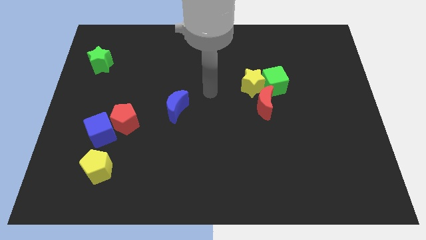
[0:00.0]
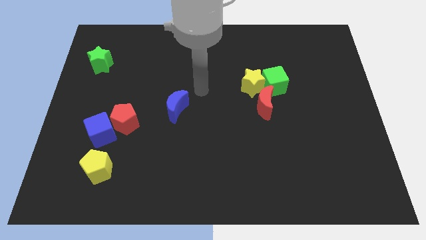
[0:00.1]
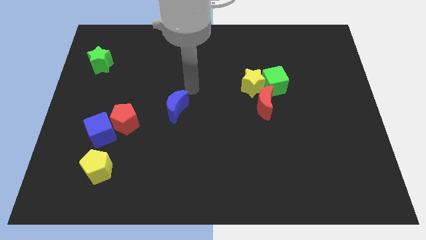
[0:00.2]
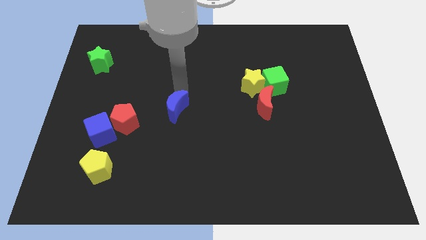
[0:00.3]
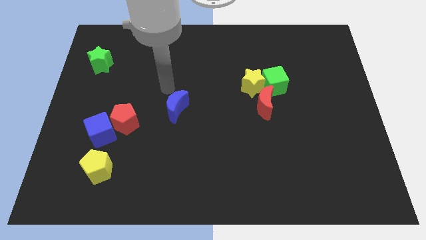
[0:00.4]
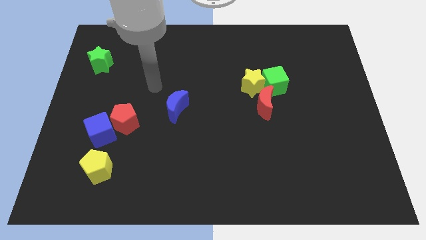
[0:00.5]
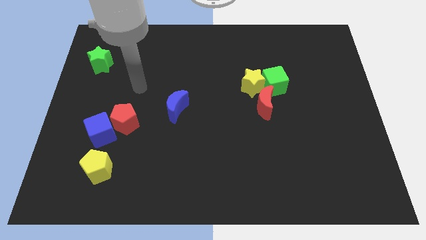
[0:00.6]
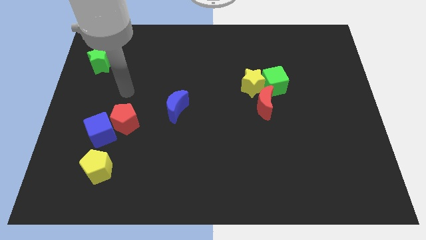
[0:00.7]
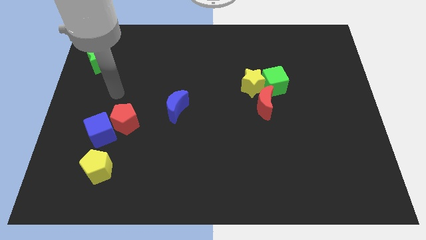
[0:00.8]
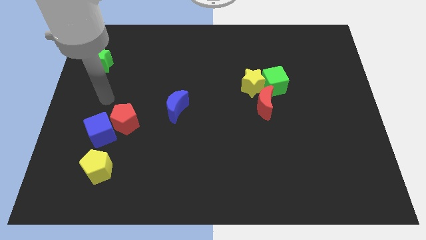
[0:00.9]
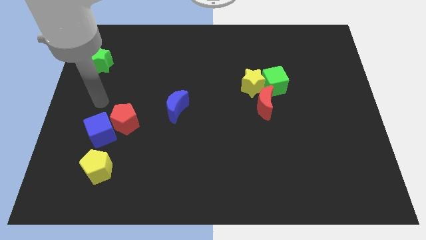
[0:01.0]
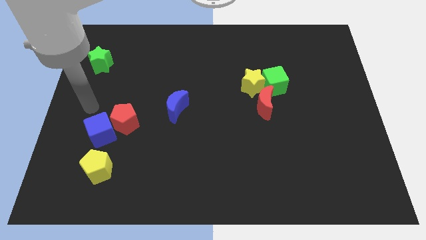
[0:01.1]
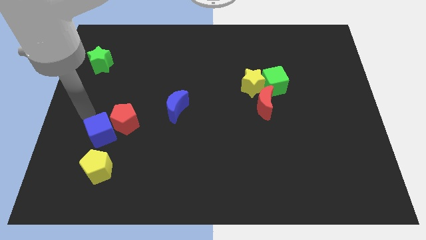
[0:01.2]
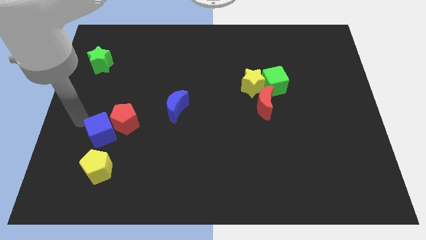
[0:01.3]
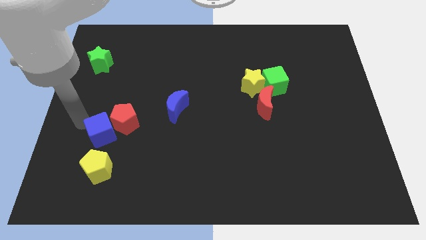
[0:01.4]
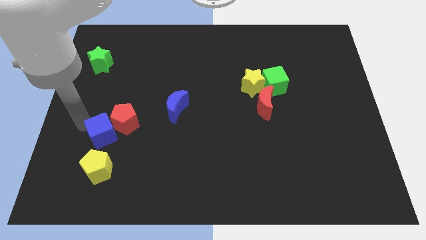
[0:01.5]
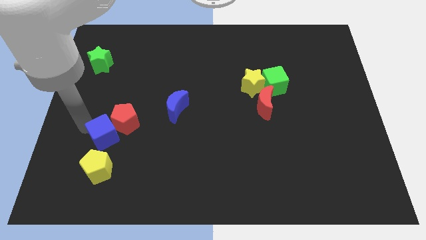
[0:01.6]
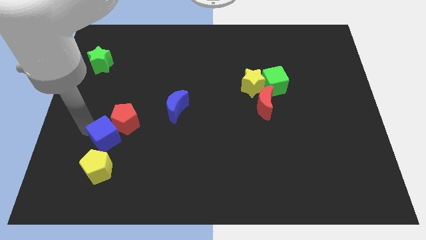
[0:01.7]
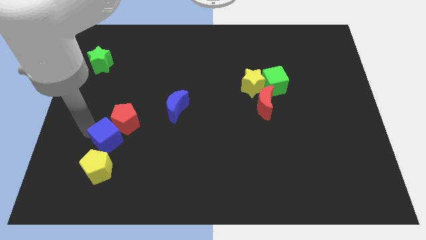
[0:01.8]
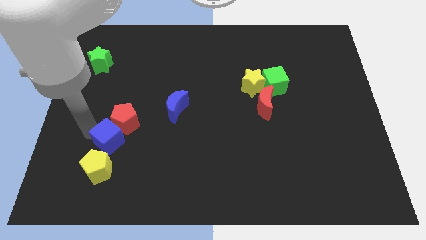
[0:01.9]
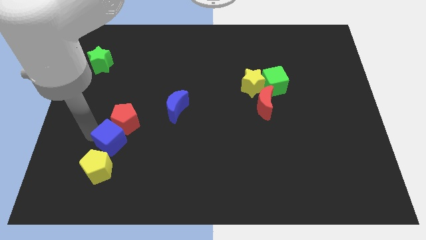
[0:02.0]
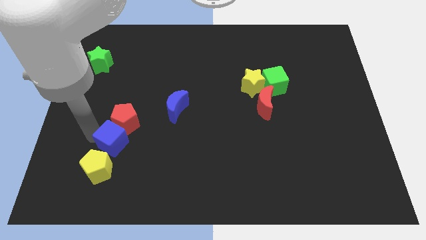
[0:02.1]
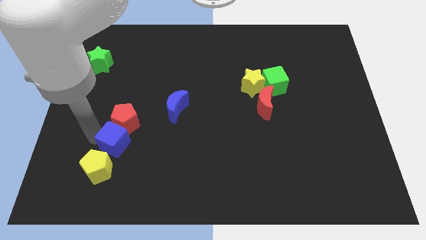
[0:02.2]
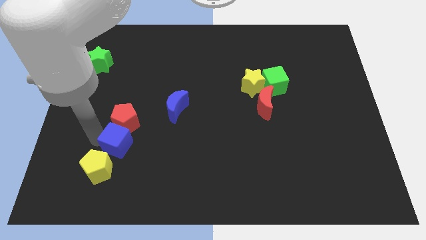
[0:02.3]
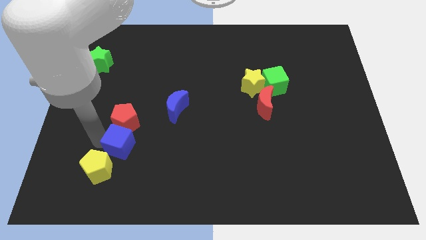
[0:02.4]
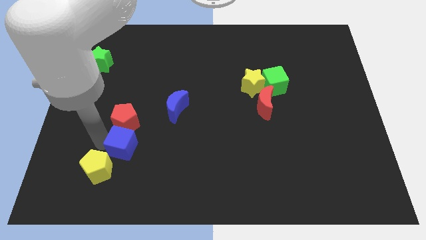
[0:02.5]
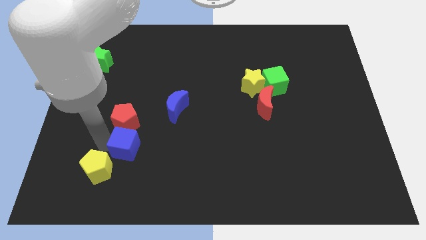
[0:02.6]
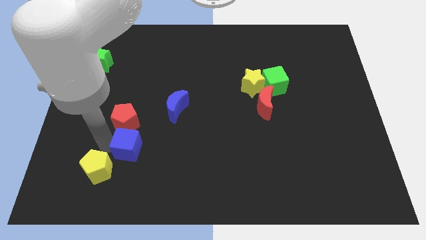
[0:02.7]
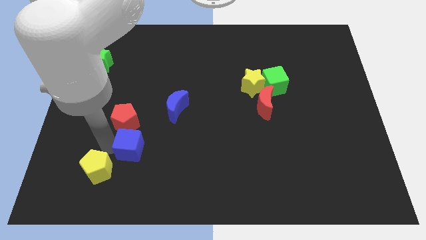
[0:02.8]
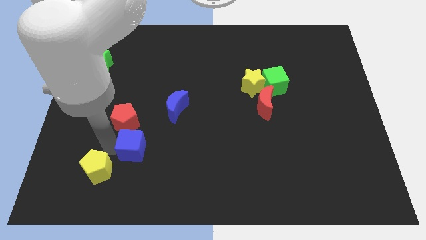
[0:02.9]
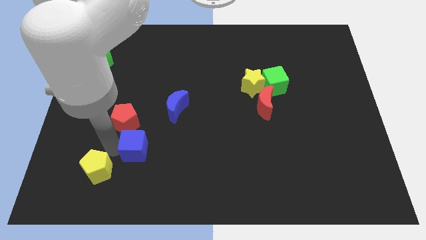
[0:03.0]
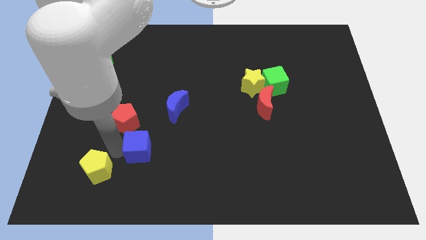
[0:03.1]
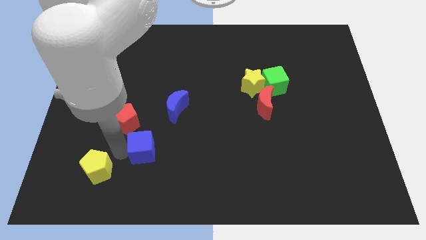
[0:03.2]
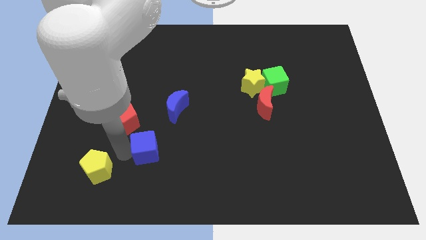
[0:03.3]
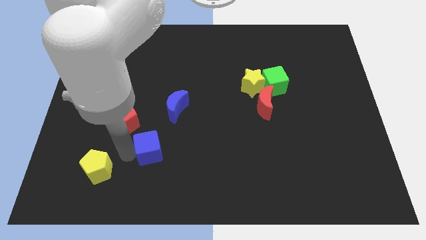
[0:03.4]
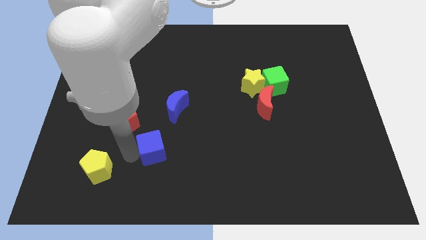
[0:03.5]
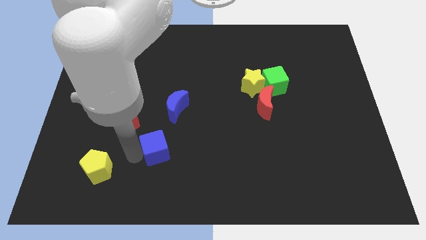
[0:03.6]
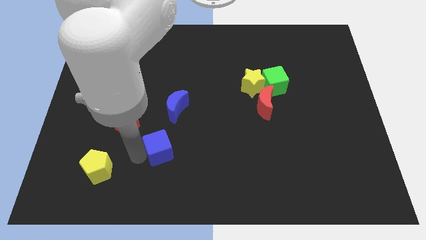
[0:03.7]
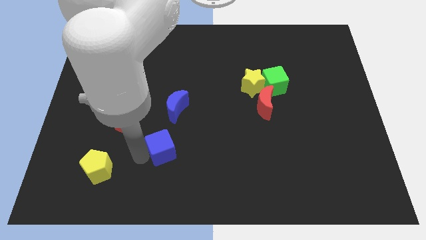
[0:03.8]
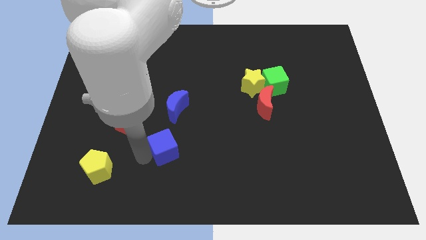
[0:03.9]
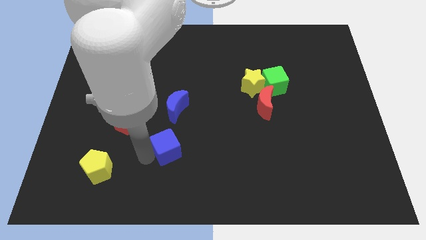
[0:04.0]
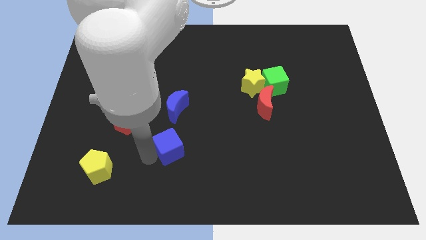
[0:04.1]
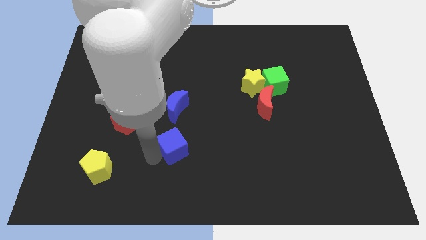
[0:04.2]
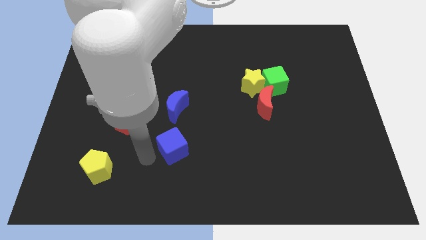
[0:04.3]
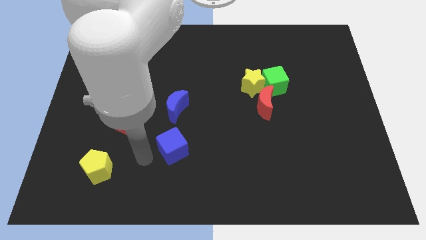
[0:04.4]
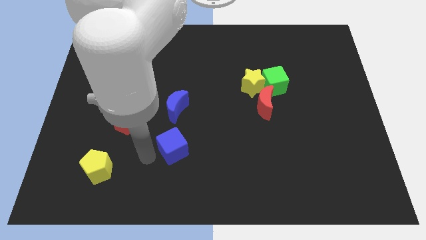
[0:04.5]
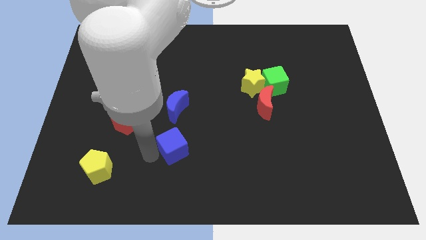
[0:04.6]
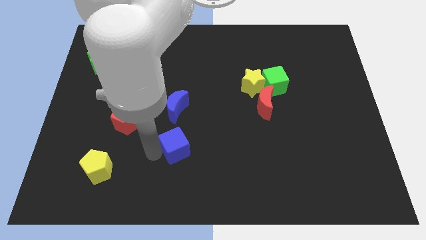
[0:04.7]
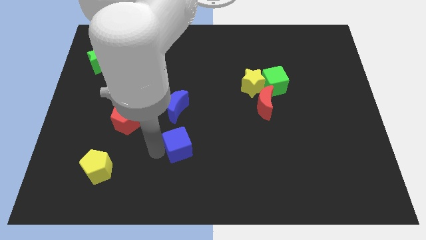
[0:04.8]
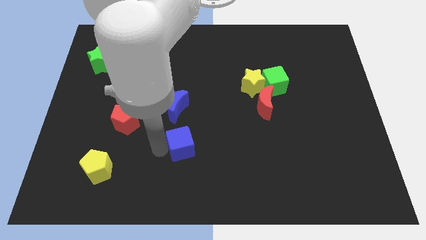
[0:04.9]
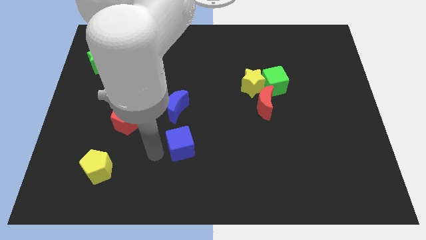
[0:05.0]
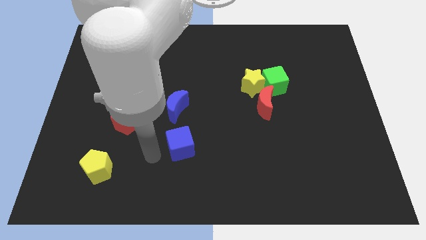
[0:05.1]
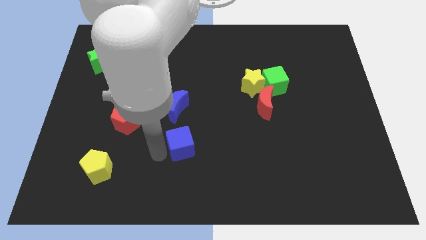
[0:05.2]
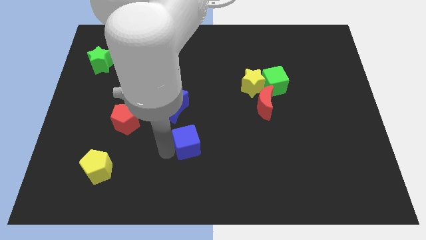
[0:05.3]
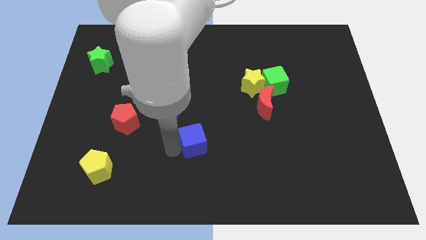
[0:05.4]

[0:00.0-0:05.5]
slide the blue cube right

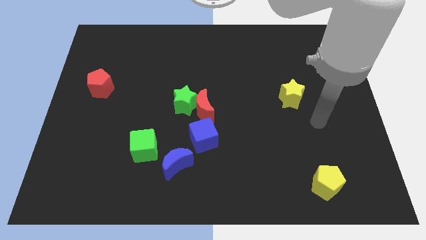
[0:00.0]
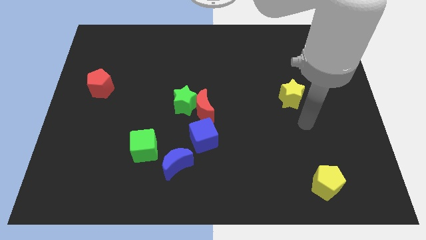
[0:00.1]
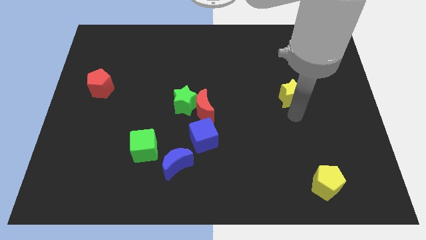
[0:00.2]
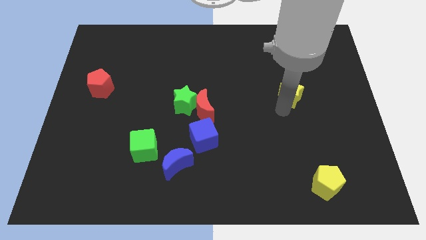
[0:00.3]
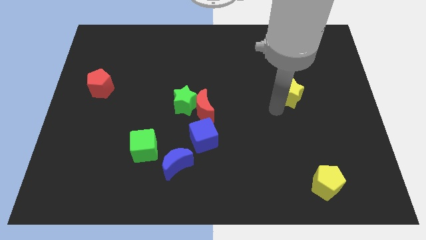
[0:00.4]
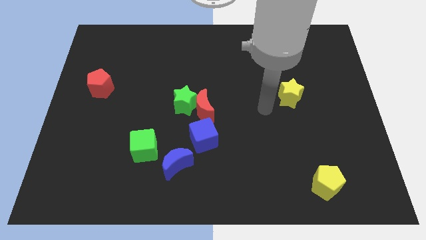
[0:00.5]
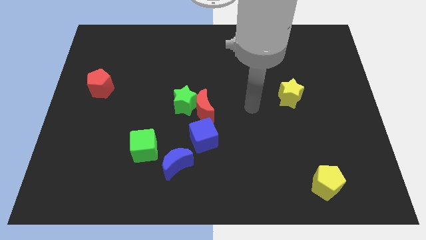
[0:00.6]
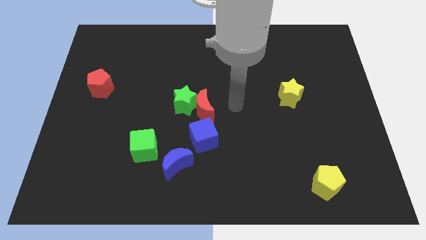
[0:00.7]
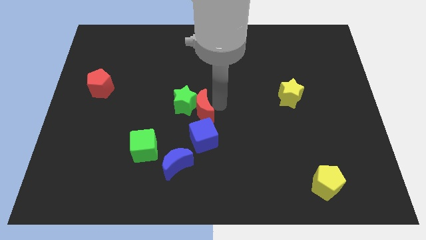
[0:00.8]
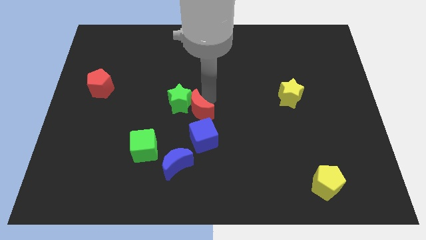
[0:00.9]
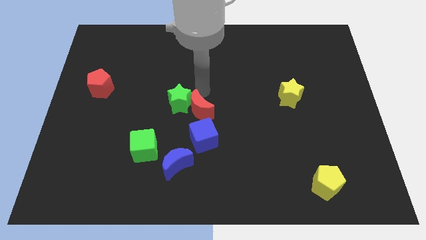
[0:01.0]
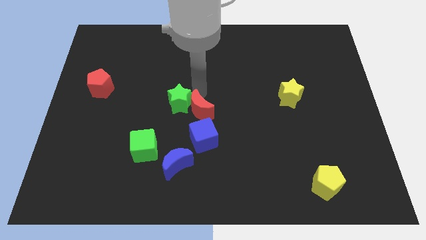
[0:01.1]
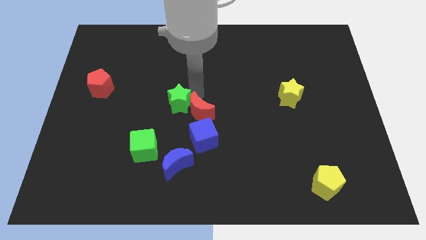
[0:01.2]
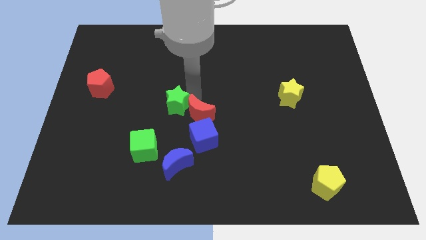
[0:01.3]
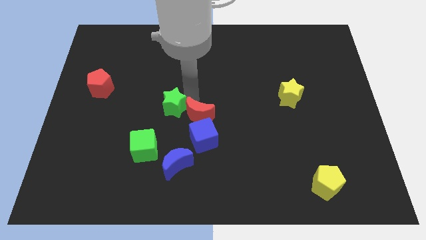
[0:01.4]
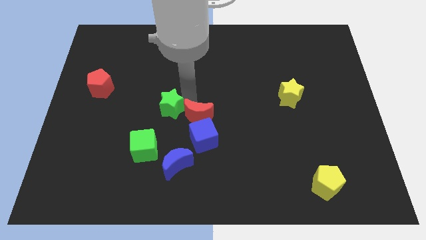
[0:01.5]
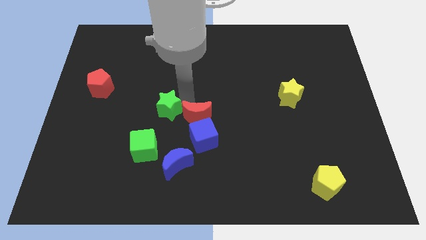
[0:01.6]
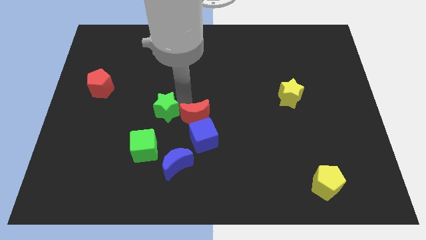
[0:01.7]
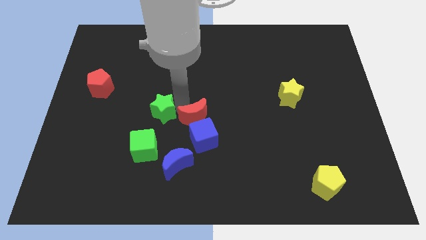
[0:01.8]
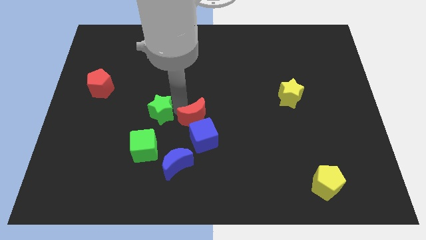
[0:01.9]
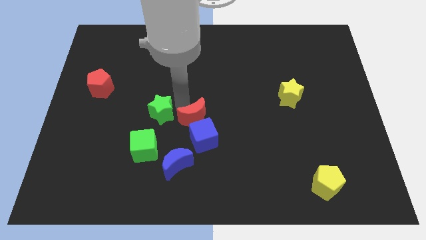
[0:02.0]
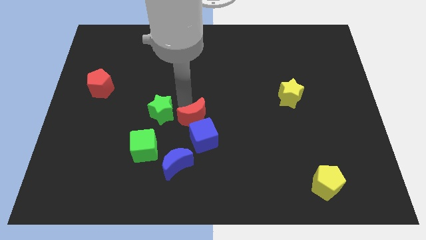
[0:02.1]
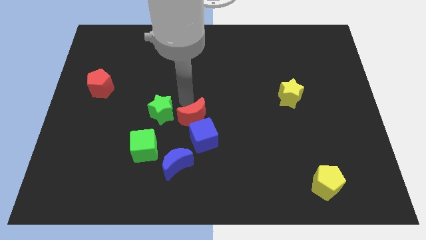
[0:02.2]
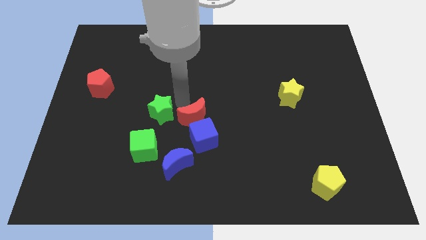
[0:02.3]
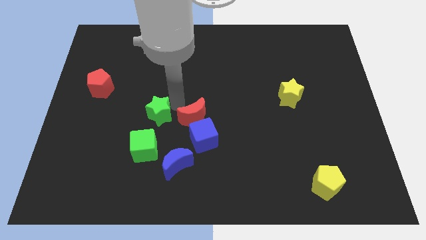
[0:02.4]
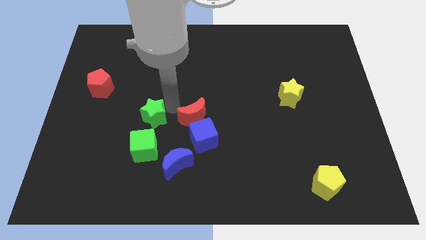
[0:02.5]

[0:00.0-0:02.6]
slide the green star slightly diagonally downwards and to the left
